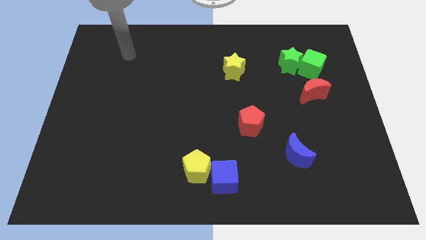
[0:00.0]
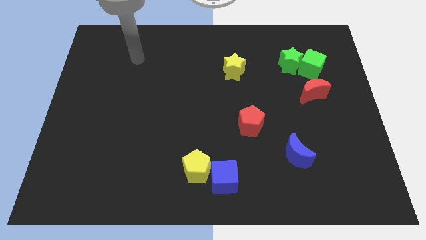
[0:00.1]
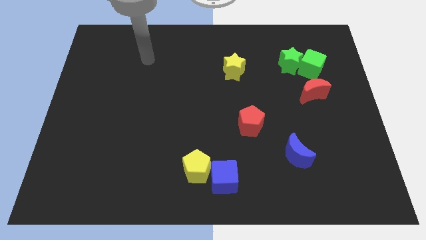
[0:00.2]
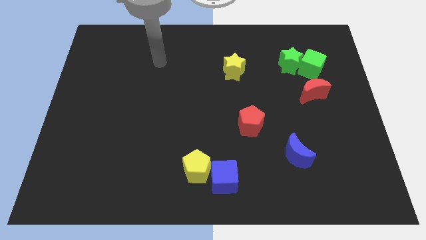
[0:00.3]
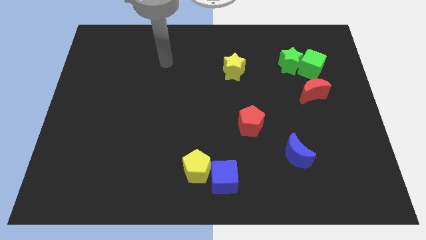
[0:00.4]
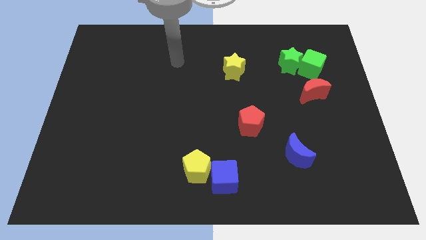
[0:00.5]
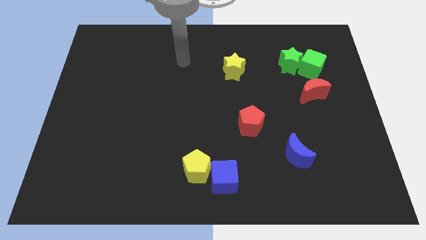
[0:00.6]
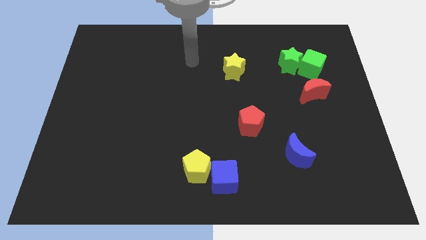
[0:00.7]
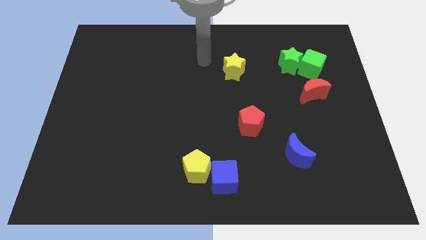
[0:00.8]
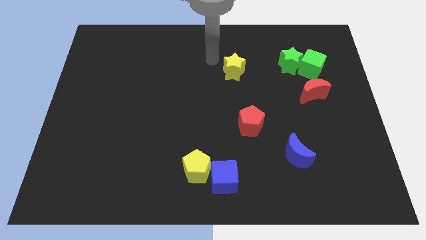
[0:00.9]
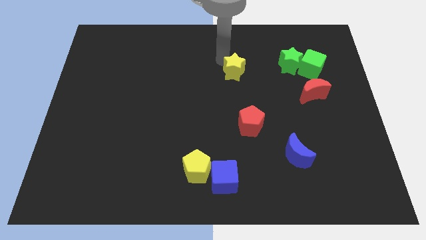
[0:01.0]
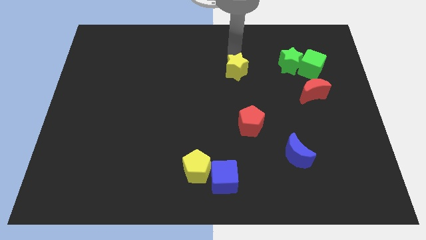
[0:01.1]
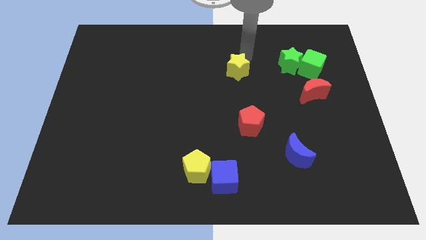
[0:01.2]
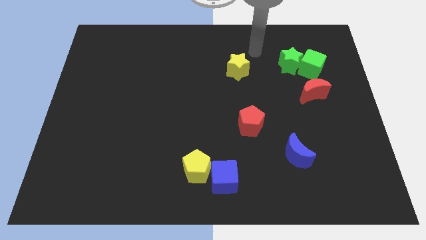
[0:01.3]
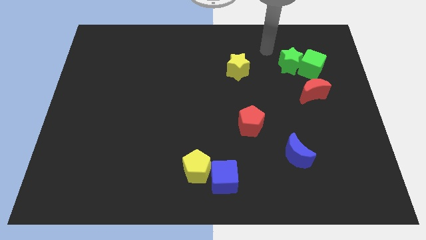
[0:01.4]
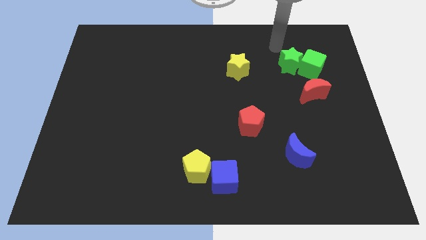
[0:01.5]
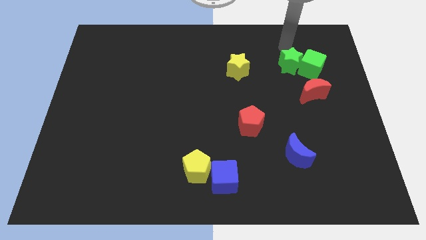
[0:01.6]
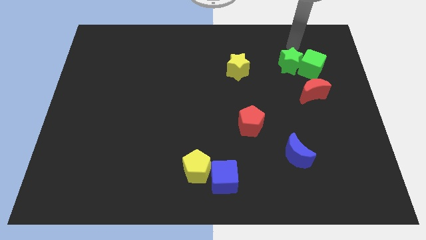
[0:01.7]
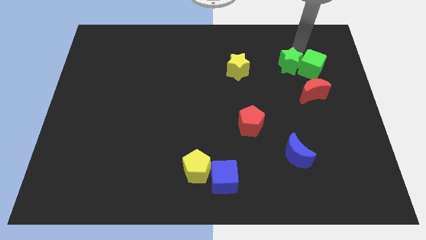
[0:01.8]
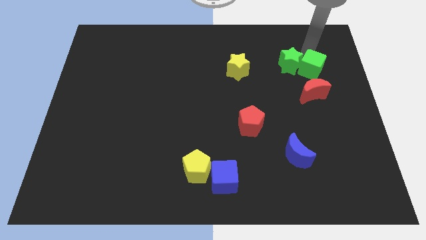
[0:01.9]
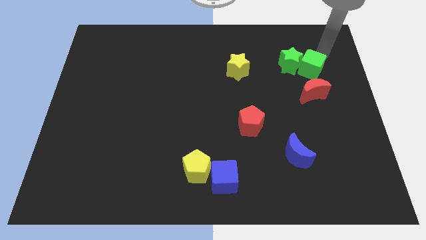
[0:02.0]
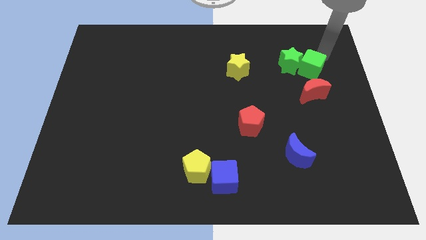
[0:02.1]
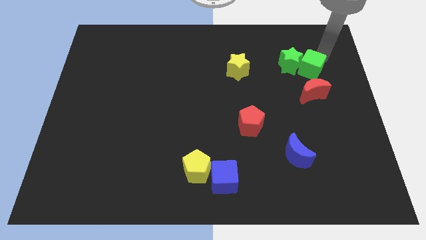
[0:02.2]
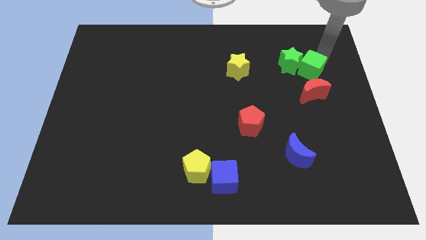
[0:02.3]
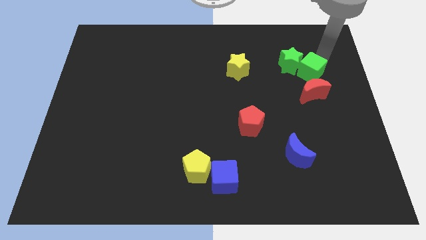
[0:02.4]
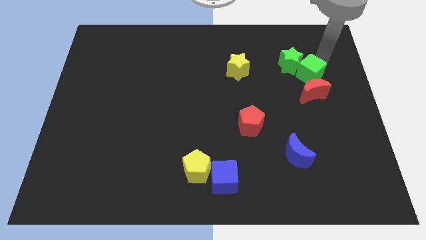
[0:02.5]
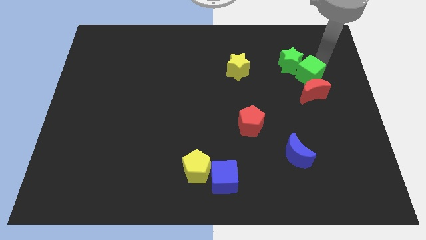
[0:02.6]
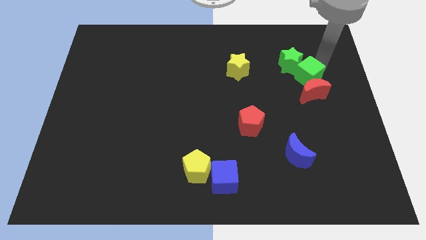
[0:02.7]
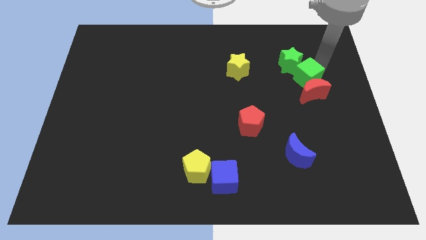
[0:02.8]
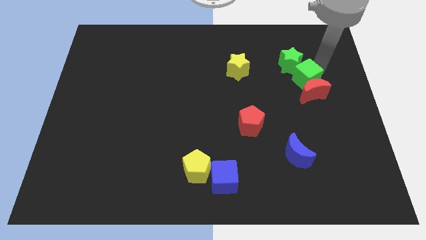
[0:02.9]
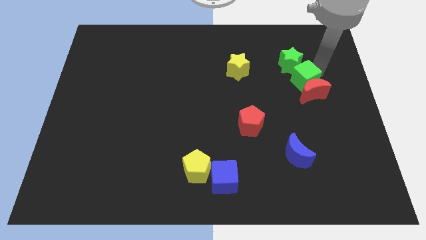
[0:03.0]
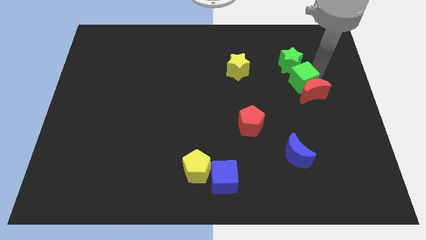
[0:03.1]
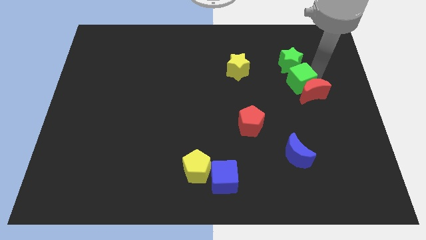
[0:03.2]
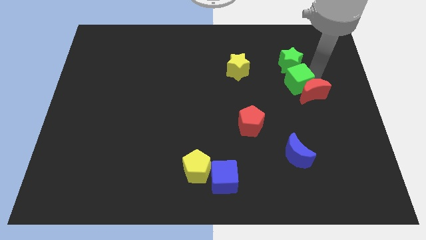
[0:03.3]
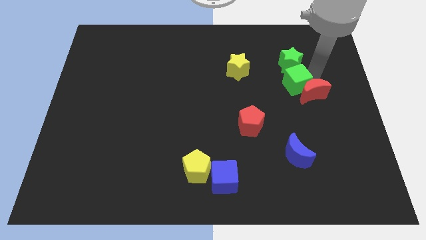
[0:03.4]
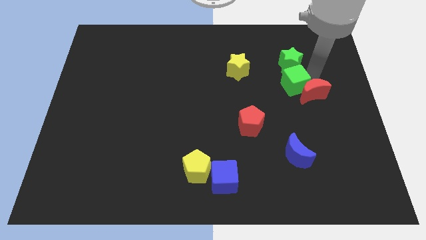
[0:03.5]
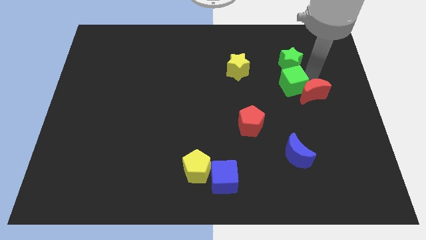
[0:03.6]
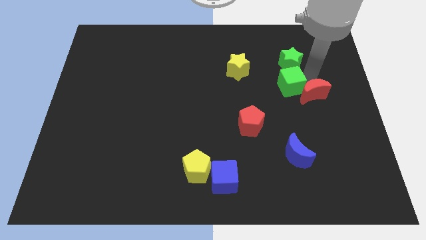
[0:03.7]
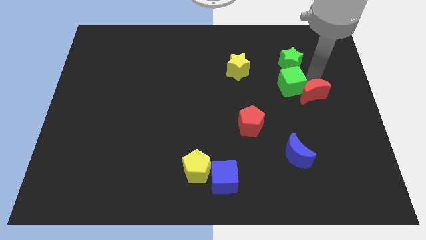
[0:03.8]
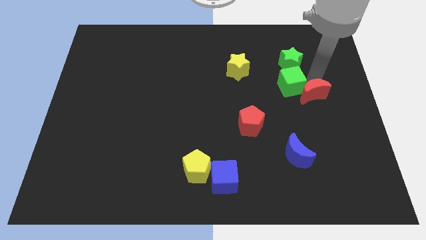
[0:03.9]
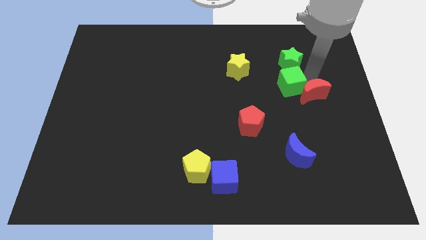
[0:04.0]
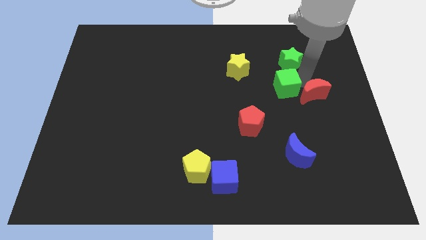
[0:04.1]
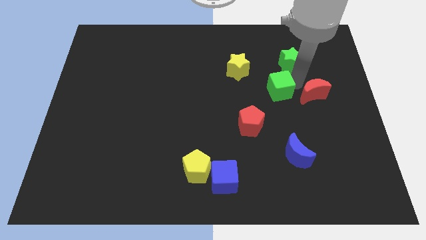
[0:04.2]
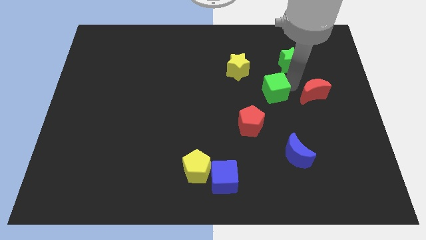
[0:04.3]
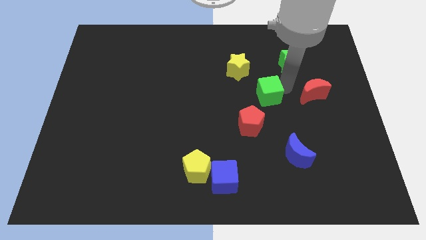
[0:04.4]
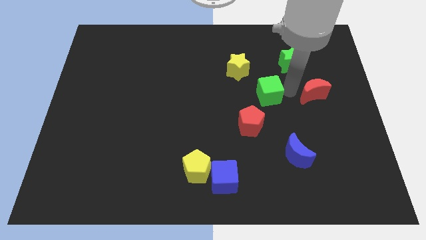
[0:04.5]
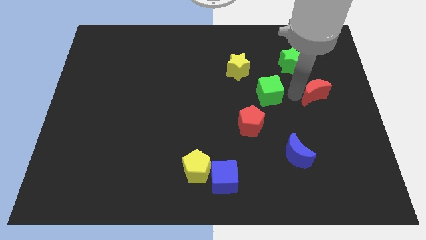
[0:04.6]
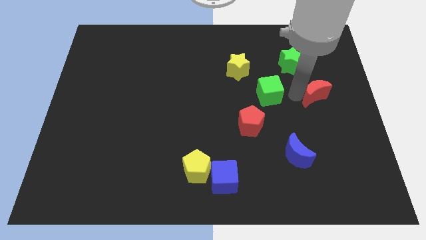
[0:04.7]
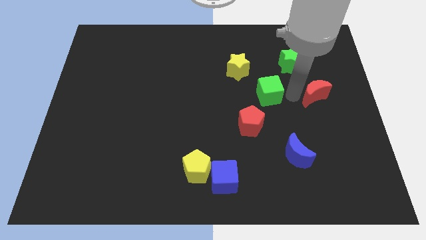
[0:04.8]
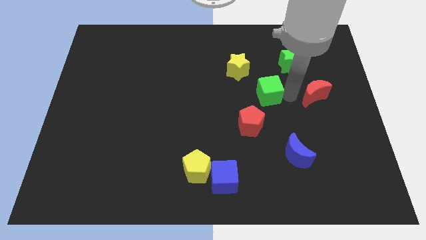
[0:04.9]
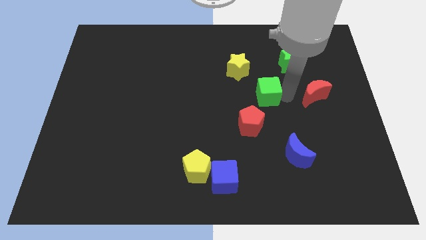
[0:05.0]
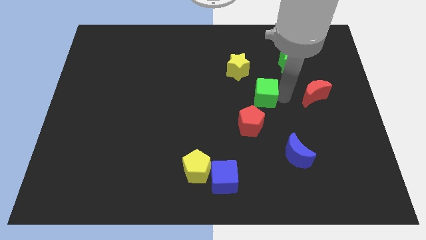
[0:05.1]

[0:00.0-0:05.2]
put the green cube to the middle of the board
